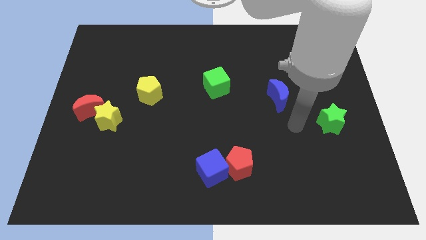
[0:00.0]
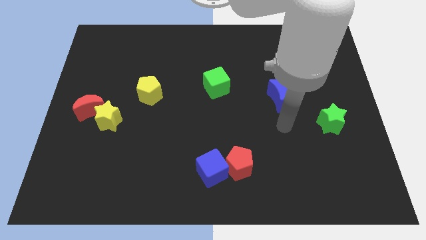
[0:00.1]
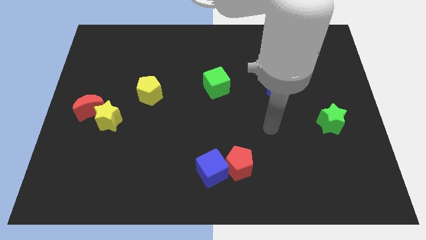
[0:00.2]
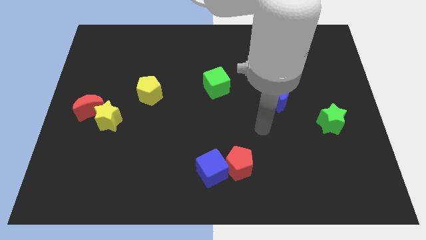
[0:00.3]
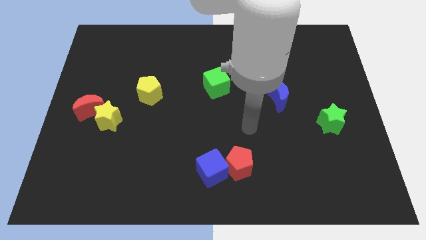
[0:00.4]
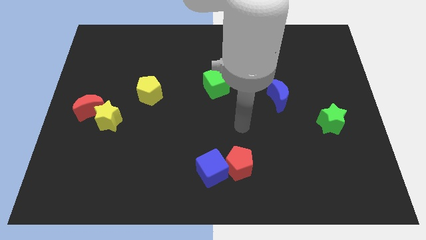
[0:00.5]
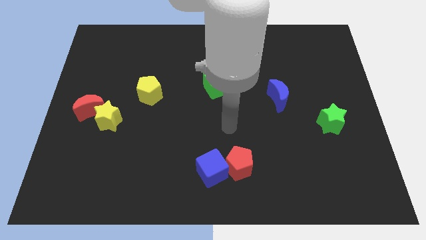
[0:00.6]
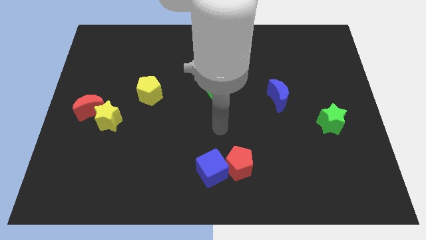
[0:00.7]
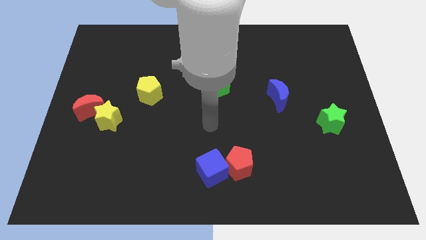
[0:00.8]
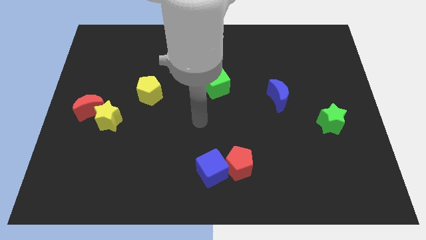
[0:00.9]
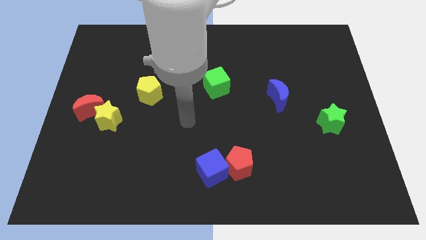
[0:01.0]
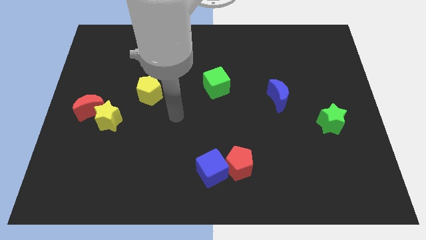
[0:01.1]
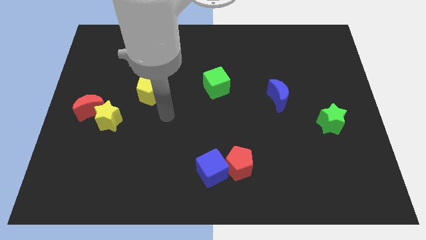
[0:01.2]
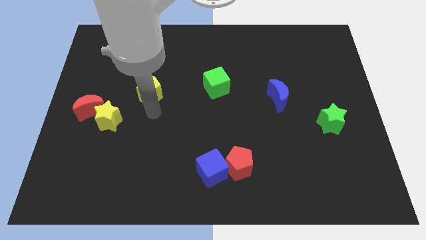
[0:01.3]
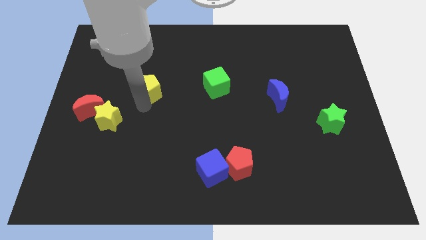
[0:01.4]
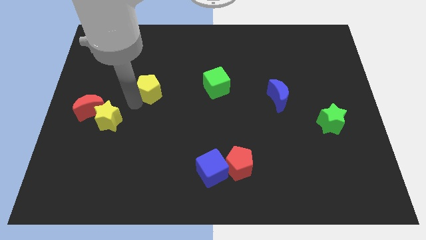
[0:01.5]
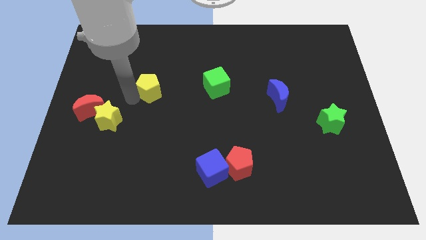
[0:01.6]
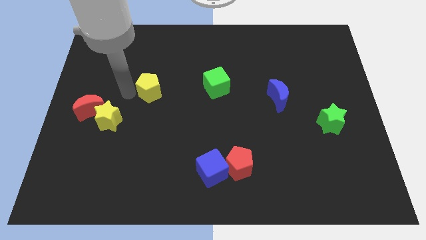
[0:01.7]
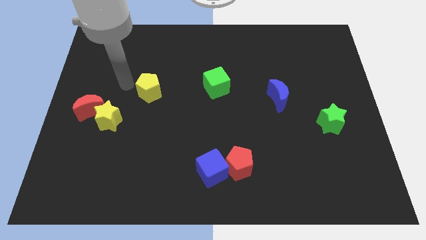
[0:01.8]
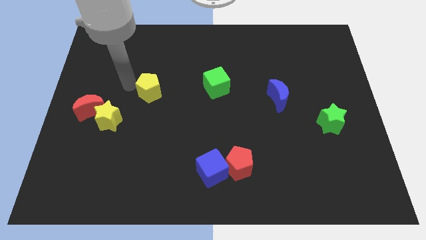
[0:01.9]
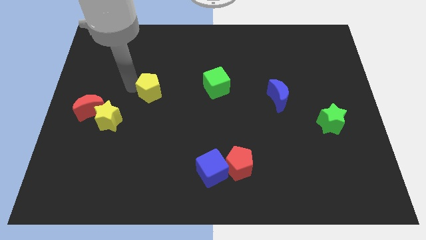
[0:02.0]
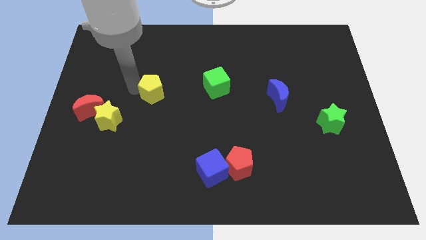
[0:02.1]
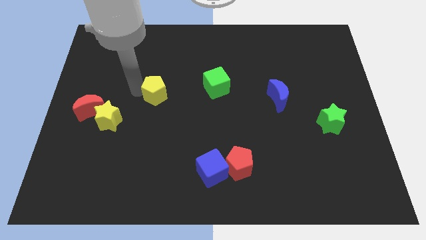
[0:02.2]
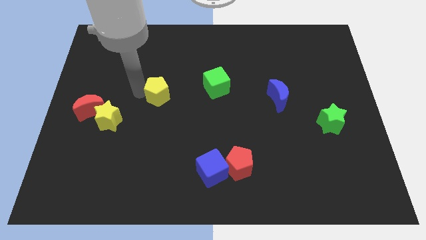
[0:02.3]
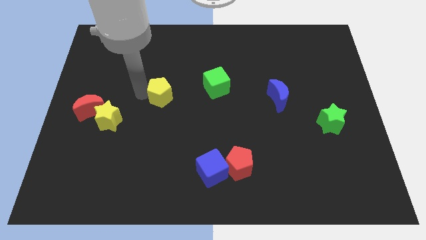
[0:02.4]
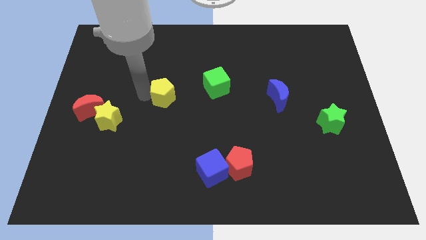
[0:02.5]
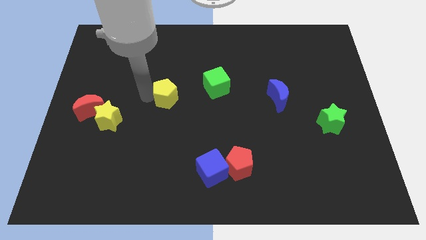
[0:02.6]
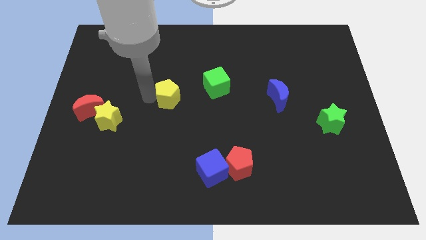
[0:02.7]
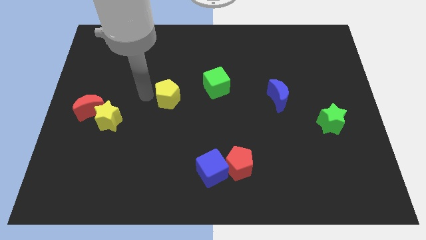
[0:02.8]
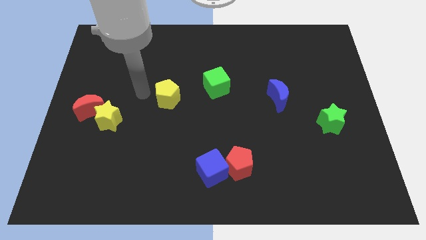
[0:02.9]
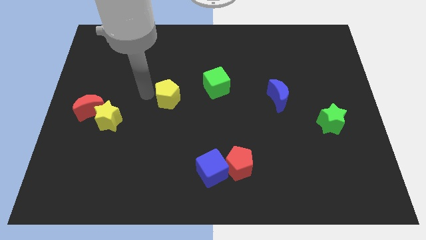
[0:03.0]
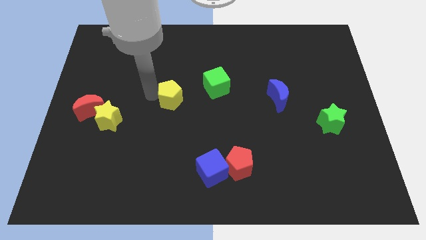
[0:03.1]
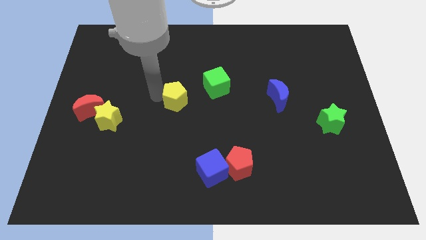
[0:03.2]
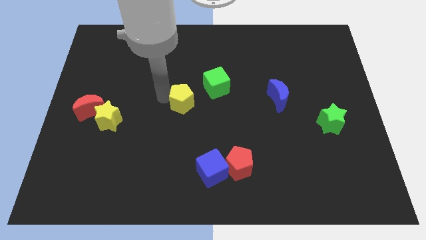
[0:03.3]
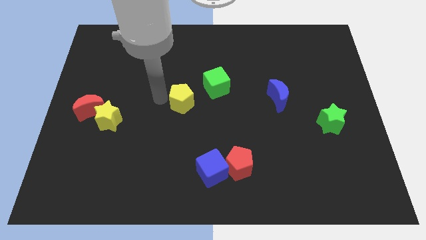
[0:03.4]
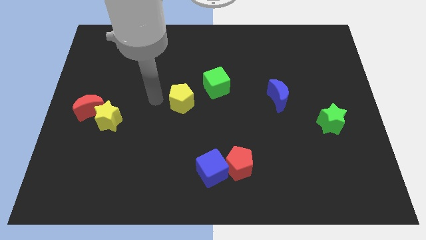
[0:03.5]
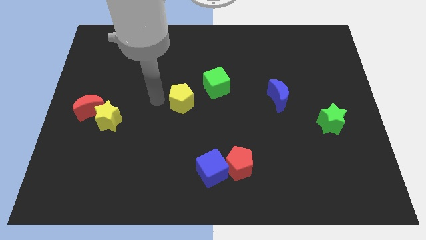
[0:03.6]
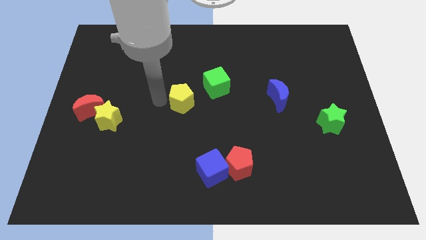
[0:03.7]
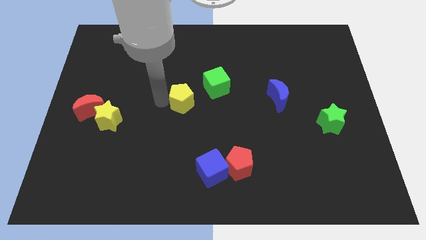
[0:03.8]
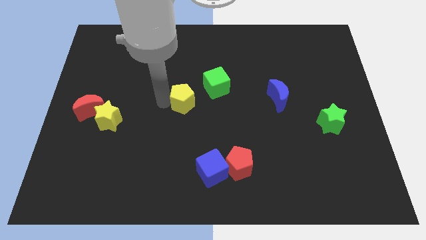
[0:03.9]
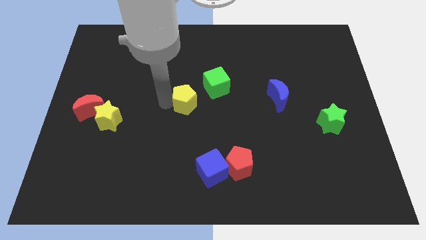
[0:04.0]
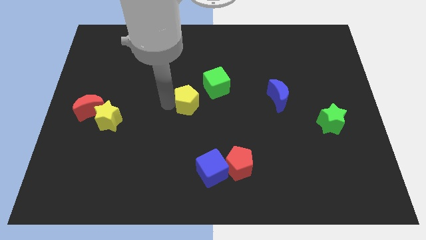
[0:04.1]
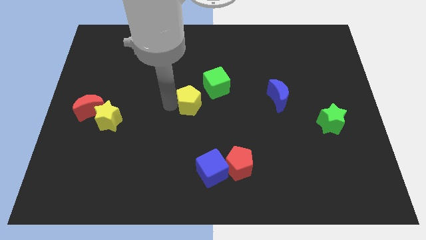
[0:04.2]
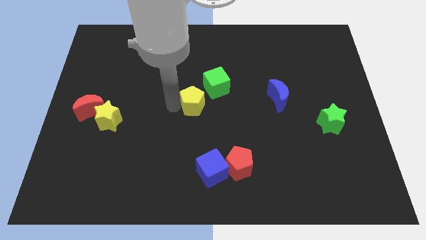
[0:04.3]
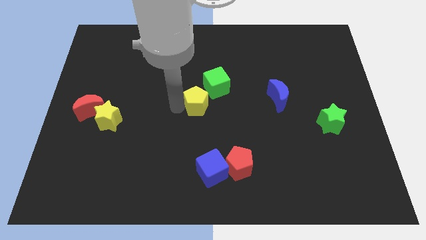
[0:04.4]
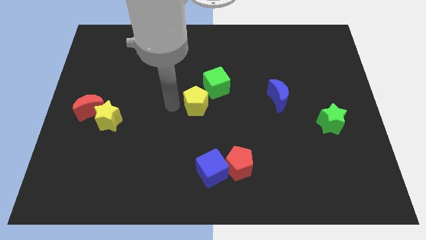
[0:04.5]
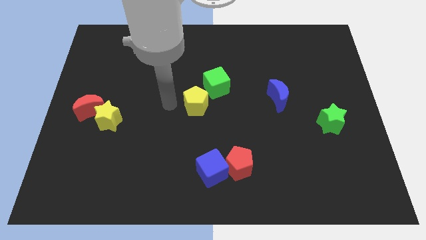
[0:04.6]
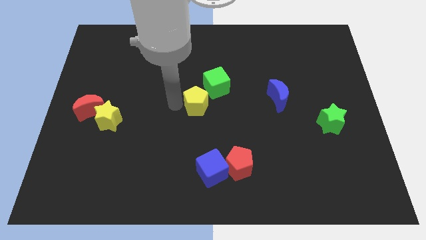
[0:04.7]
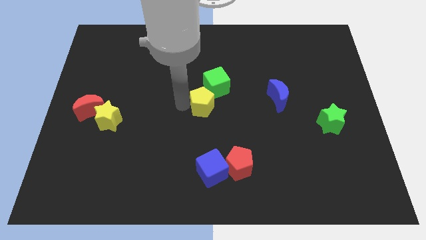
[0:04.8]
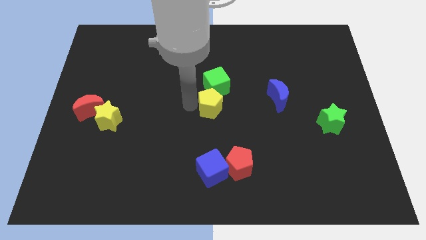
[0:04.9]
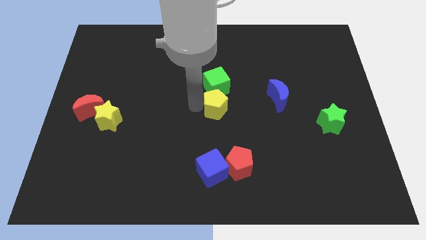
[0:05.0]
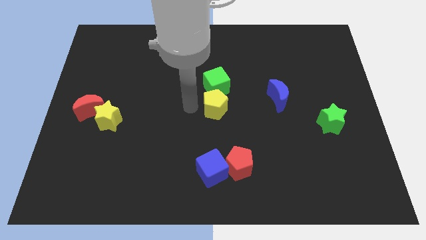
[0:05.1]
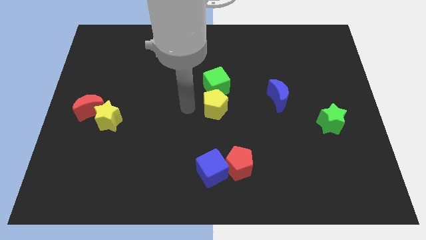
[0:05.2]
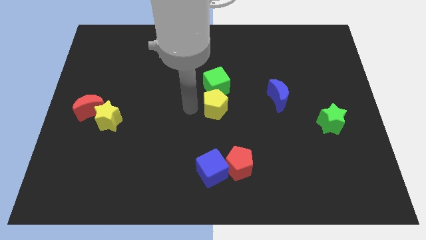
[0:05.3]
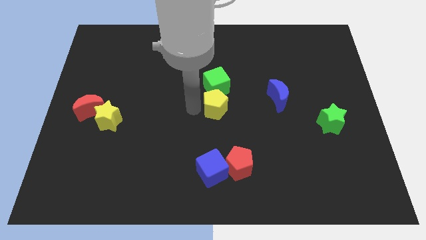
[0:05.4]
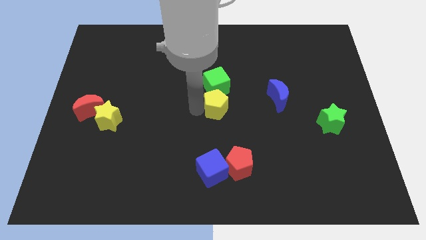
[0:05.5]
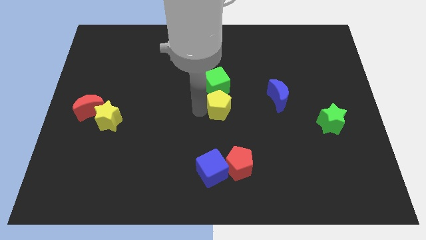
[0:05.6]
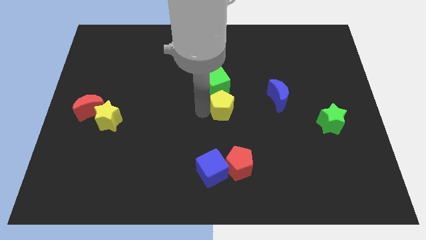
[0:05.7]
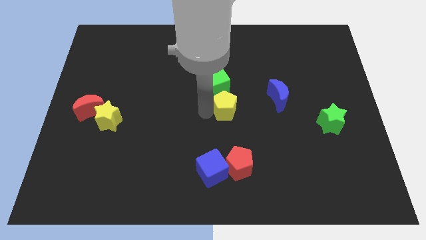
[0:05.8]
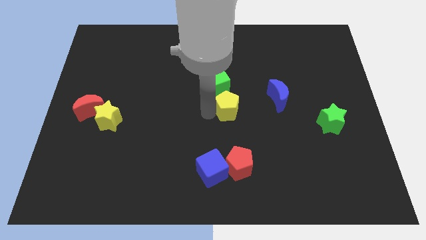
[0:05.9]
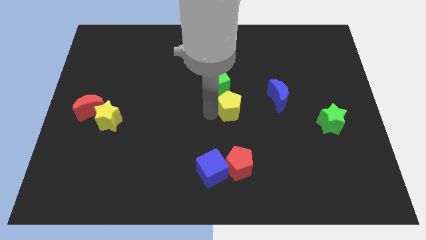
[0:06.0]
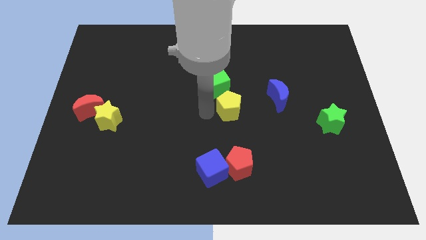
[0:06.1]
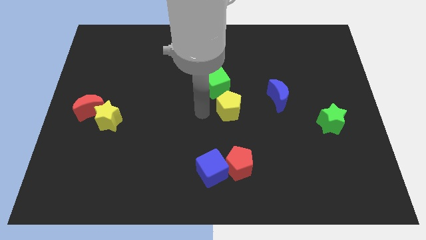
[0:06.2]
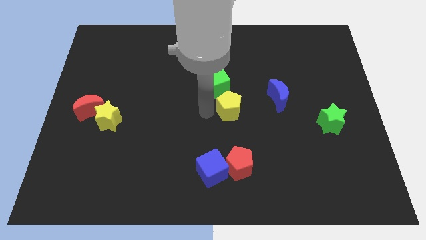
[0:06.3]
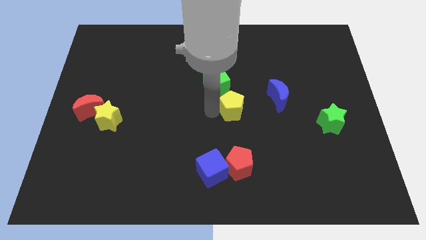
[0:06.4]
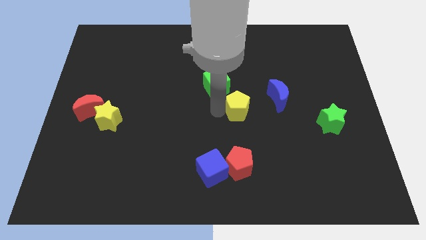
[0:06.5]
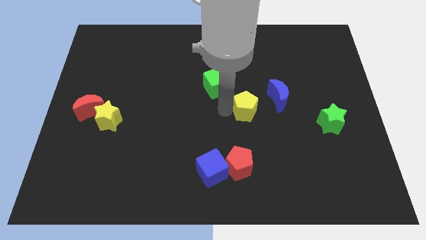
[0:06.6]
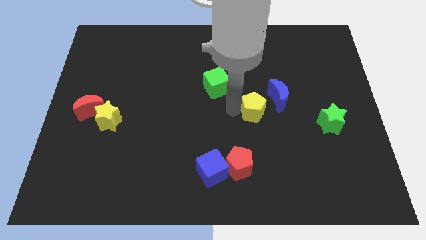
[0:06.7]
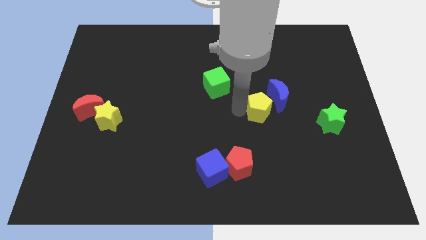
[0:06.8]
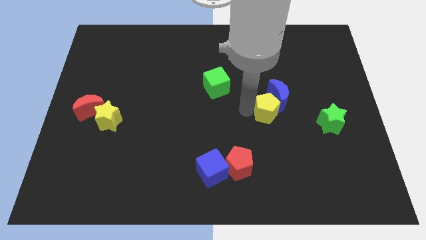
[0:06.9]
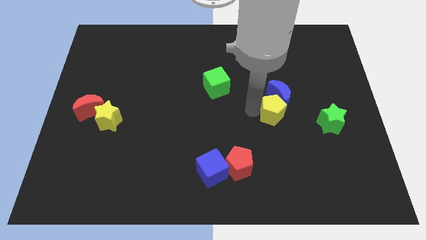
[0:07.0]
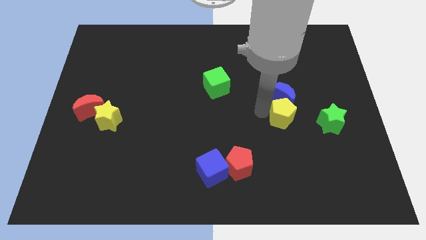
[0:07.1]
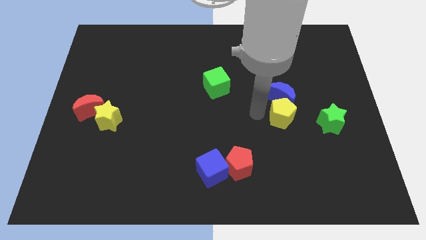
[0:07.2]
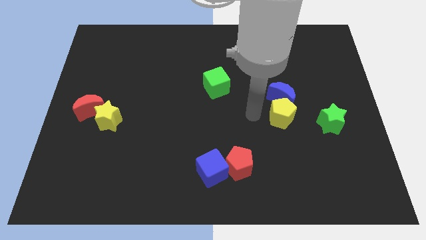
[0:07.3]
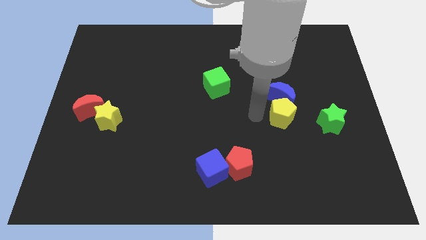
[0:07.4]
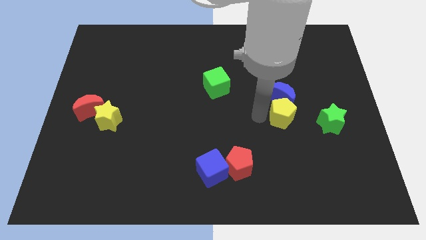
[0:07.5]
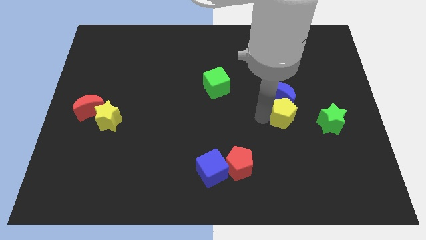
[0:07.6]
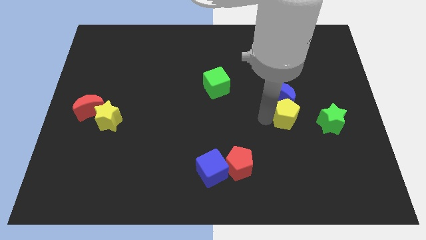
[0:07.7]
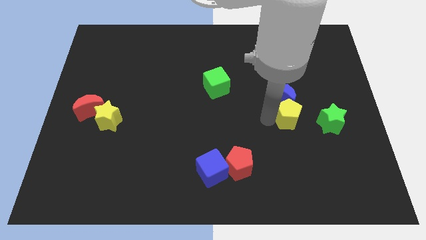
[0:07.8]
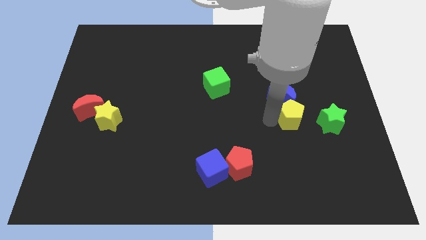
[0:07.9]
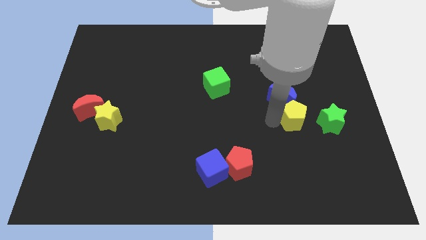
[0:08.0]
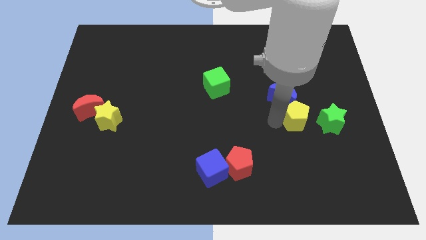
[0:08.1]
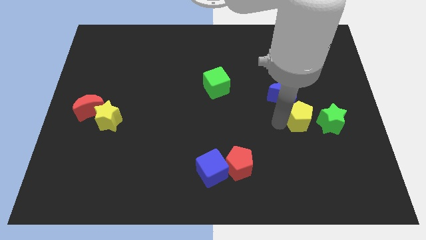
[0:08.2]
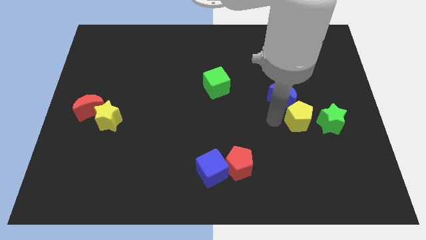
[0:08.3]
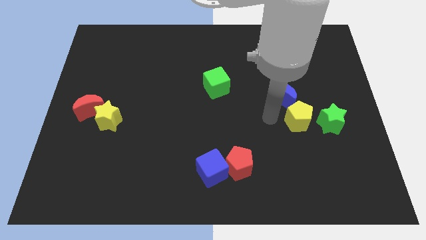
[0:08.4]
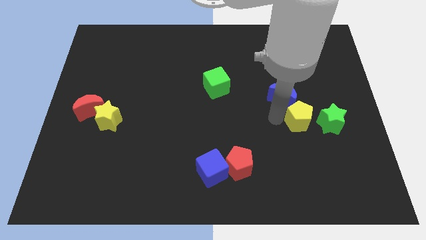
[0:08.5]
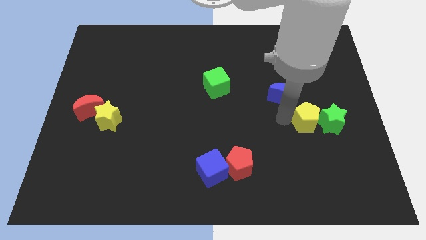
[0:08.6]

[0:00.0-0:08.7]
put the yellow pentagon to the green star
